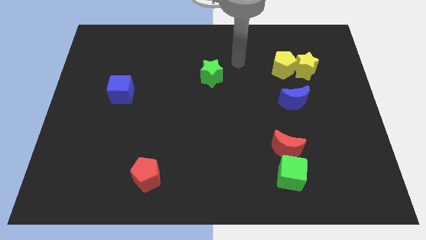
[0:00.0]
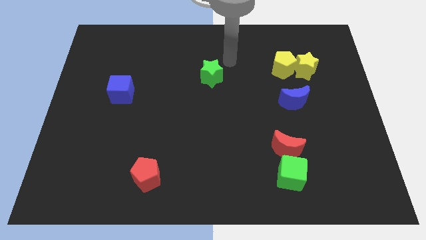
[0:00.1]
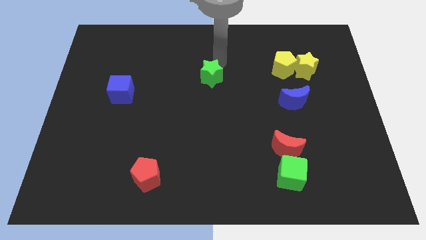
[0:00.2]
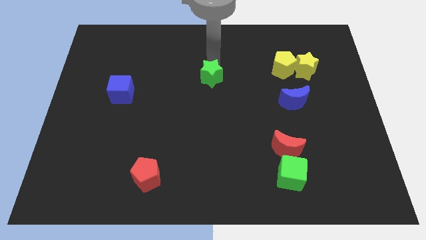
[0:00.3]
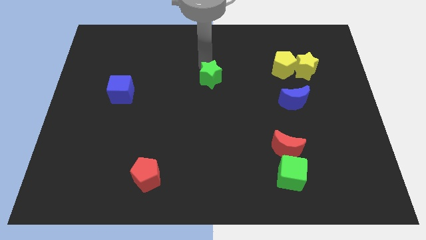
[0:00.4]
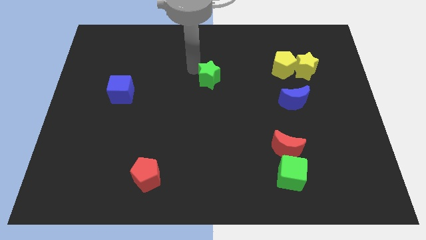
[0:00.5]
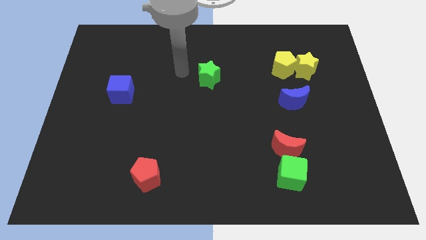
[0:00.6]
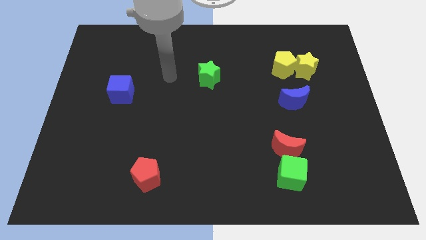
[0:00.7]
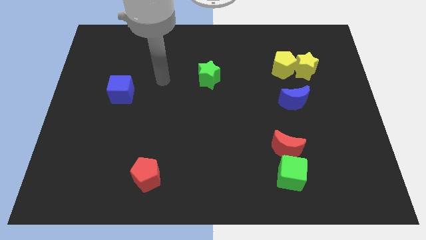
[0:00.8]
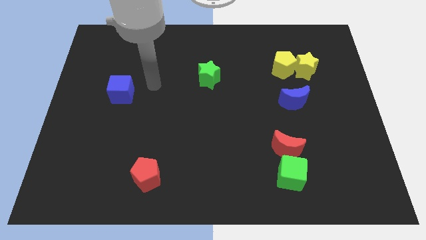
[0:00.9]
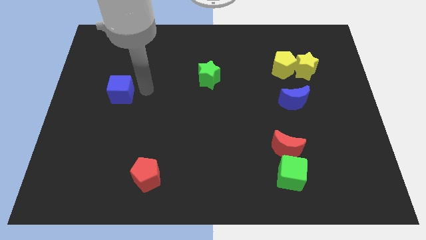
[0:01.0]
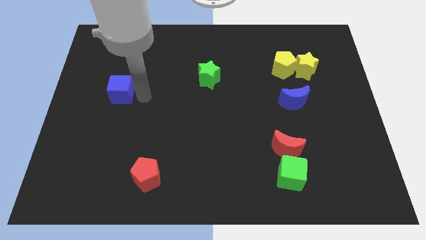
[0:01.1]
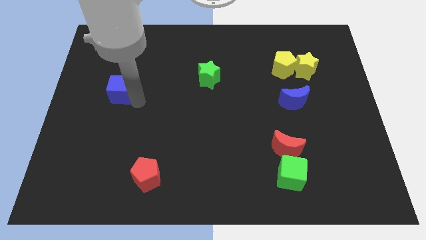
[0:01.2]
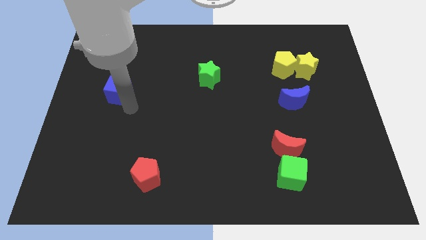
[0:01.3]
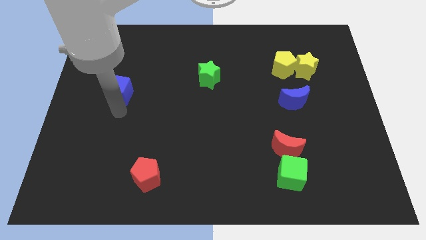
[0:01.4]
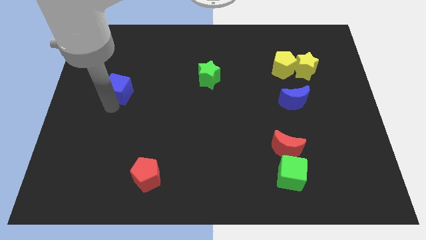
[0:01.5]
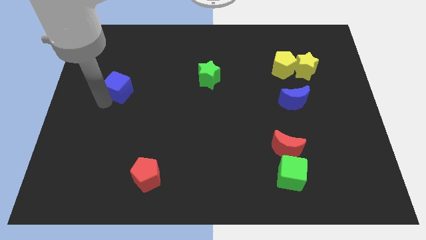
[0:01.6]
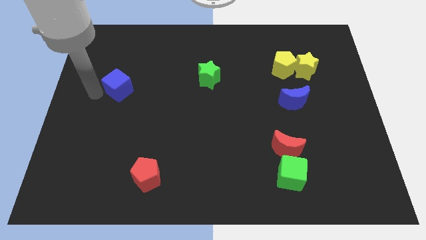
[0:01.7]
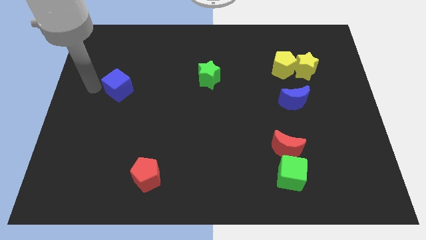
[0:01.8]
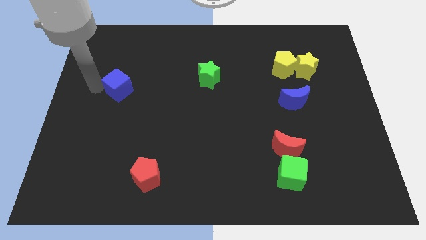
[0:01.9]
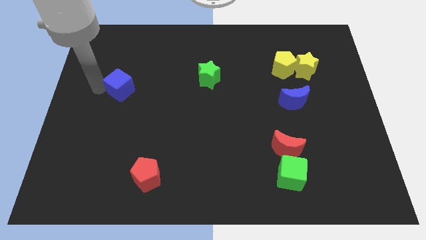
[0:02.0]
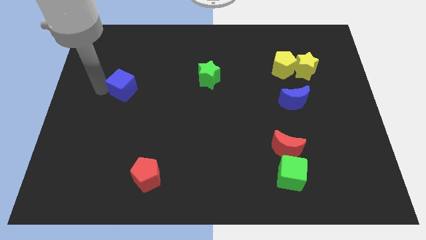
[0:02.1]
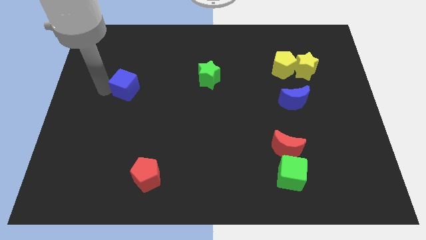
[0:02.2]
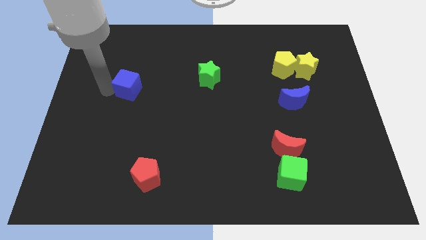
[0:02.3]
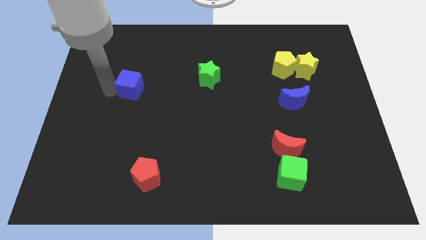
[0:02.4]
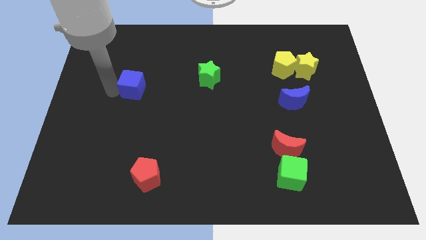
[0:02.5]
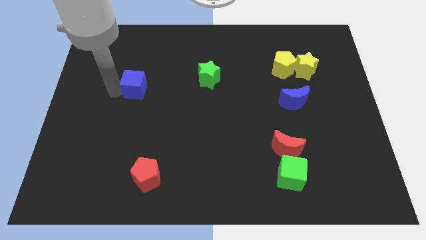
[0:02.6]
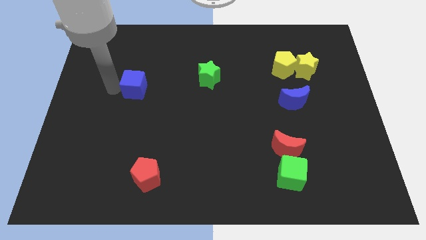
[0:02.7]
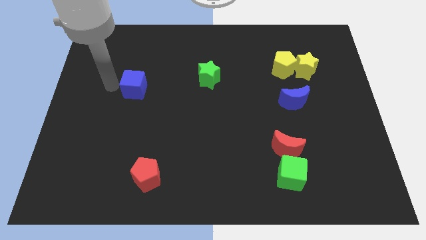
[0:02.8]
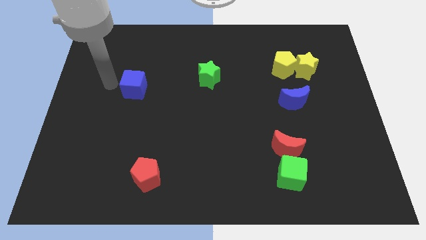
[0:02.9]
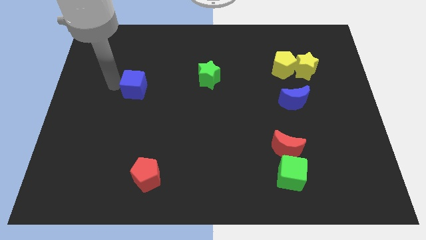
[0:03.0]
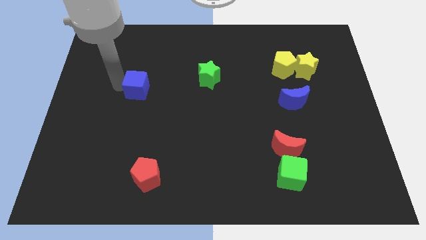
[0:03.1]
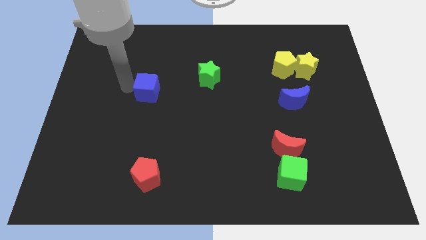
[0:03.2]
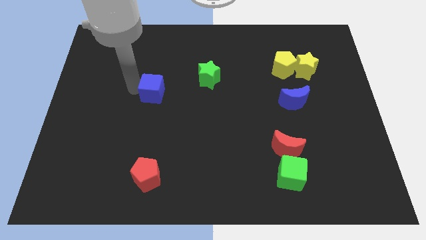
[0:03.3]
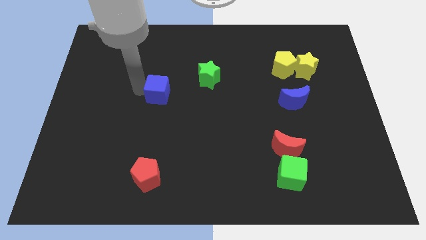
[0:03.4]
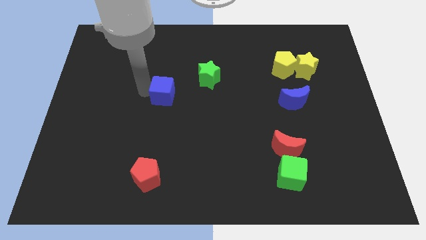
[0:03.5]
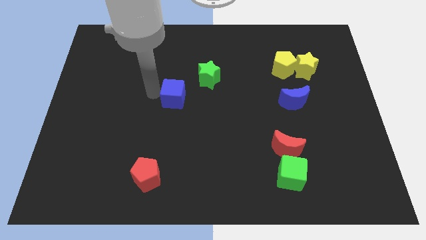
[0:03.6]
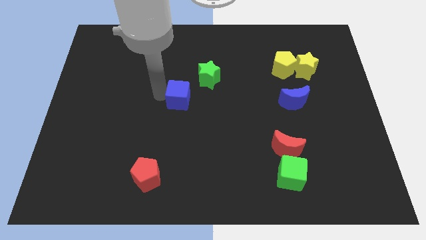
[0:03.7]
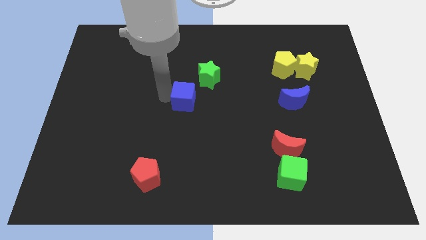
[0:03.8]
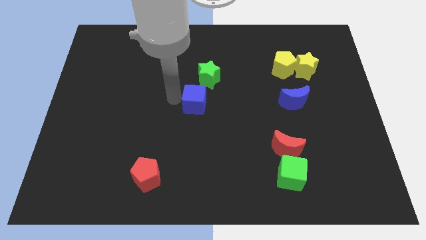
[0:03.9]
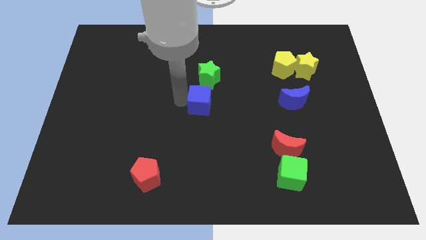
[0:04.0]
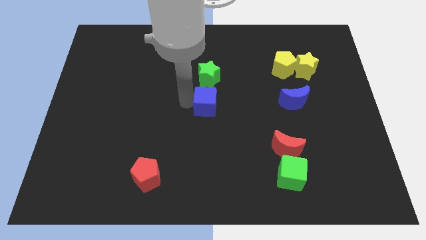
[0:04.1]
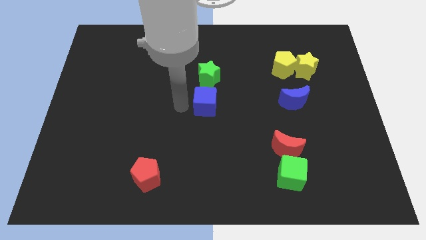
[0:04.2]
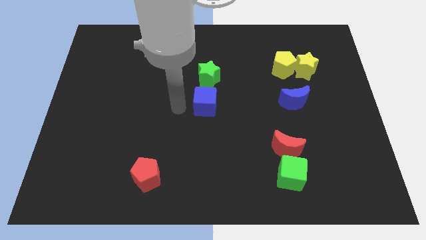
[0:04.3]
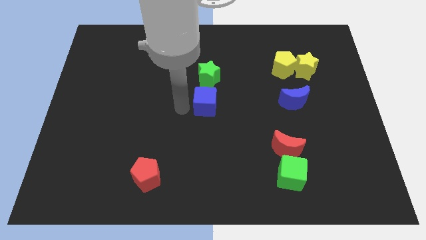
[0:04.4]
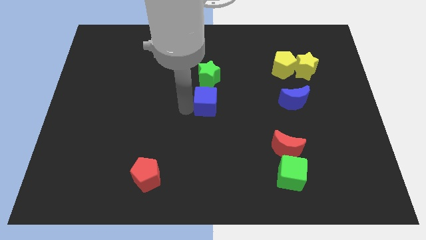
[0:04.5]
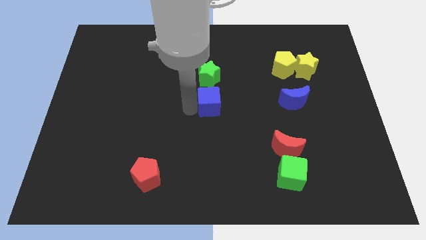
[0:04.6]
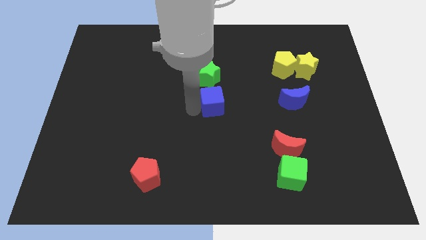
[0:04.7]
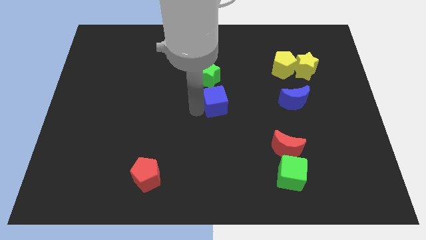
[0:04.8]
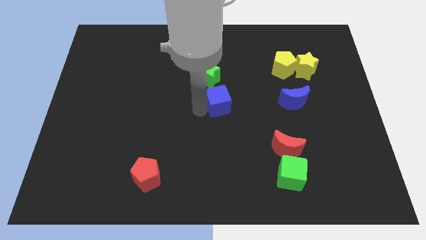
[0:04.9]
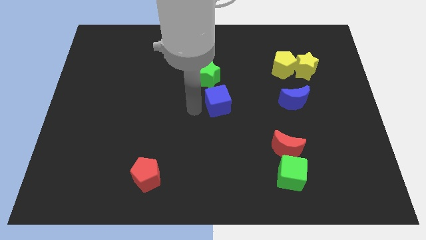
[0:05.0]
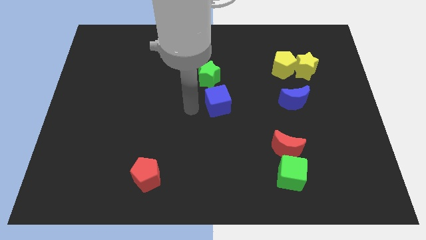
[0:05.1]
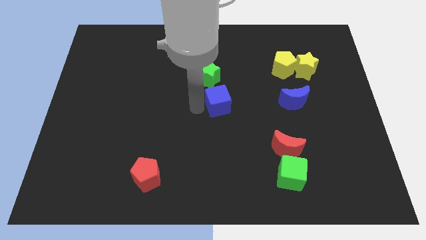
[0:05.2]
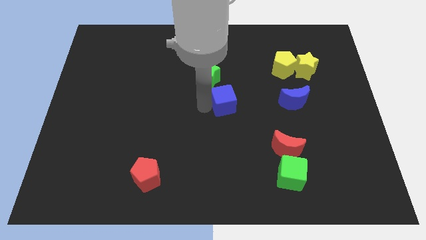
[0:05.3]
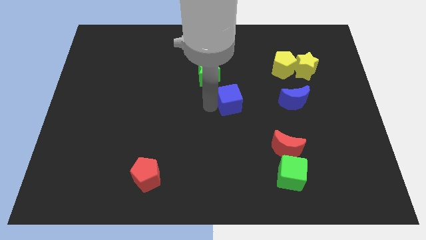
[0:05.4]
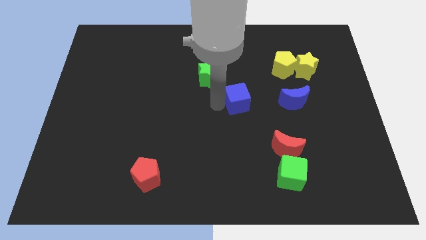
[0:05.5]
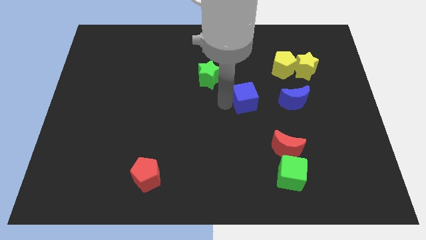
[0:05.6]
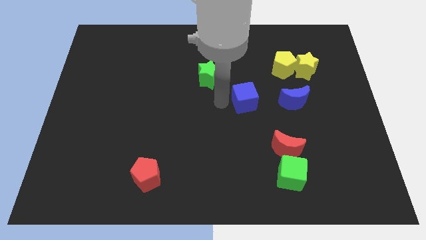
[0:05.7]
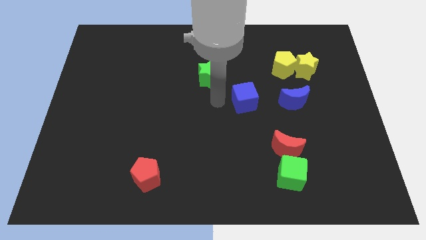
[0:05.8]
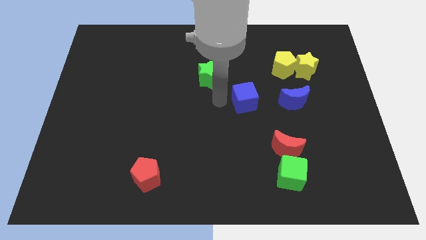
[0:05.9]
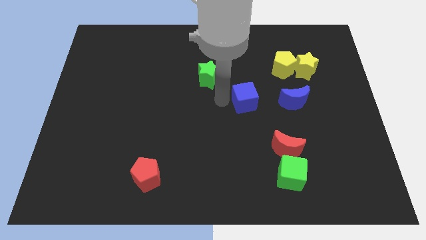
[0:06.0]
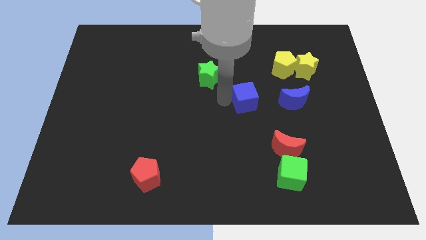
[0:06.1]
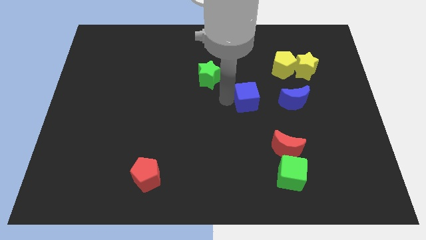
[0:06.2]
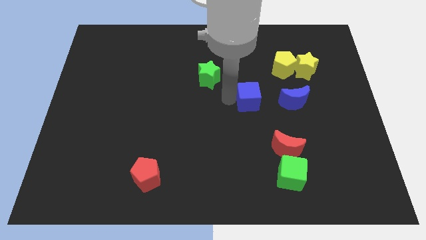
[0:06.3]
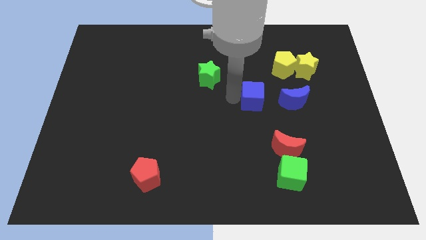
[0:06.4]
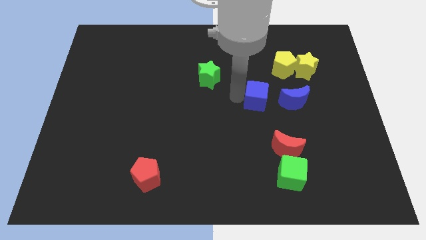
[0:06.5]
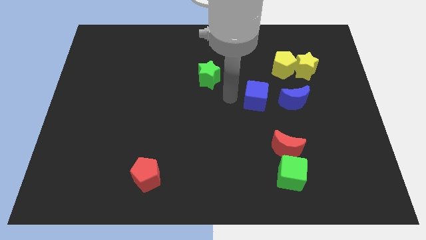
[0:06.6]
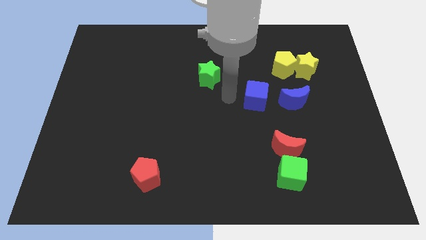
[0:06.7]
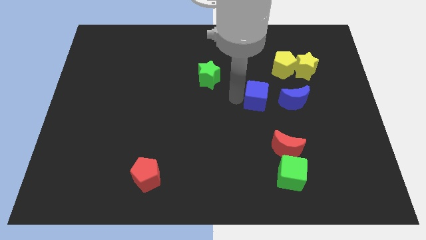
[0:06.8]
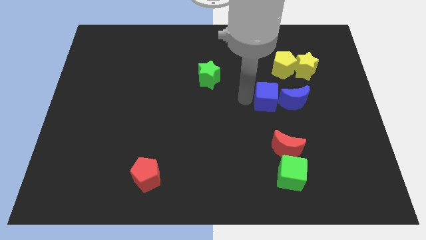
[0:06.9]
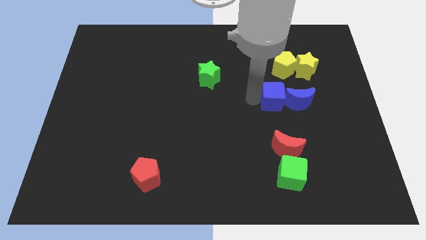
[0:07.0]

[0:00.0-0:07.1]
slide the blue cube towards the blue moon
